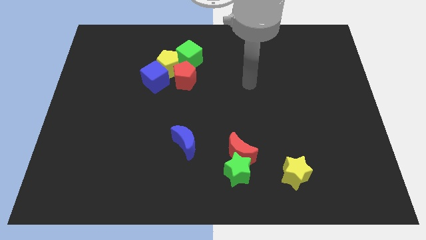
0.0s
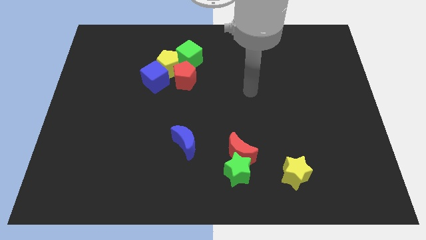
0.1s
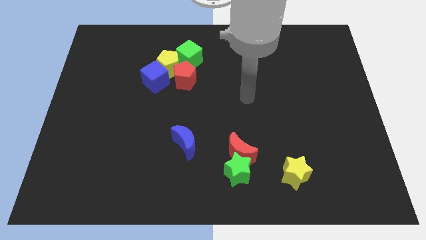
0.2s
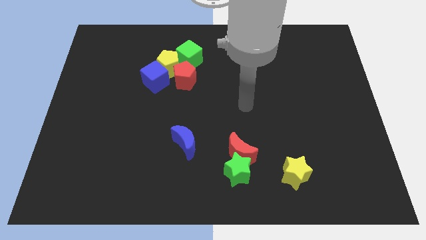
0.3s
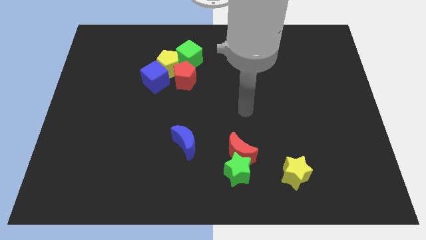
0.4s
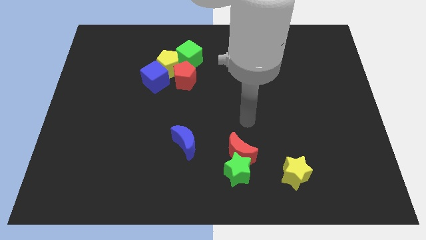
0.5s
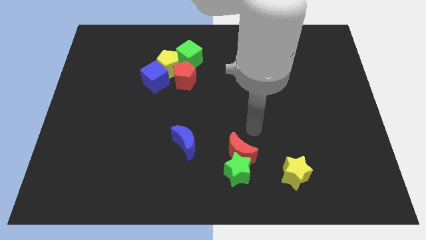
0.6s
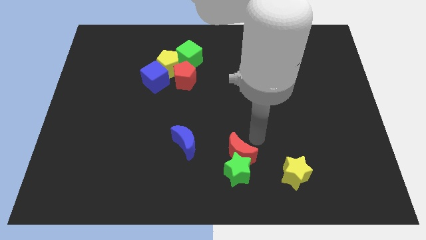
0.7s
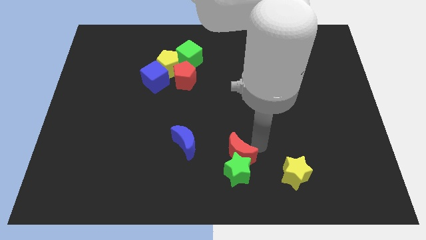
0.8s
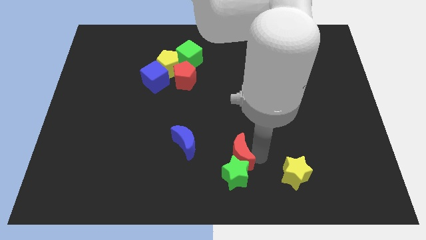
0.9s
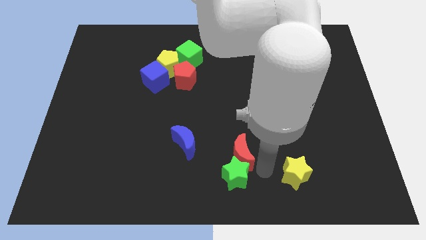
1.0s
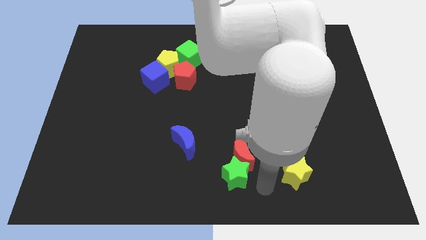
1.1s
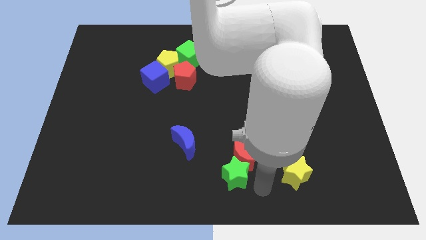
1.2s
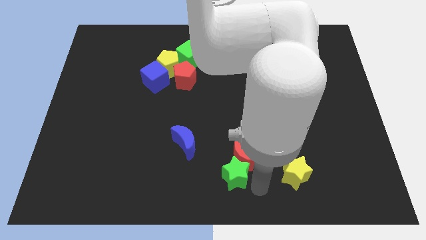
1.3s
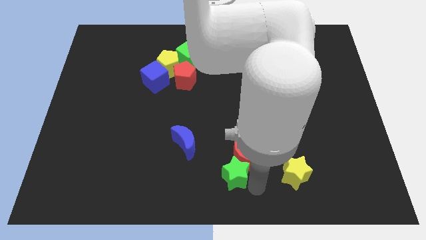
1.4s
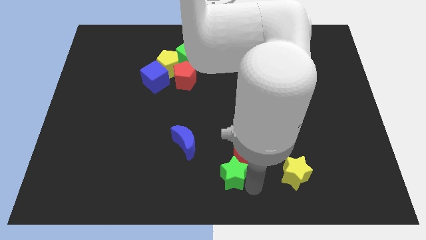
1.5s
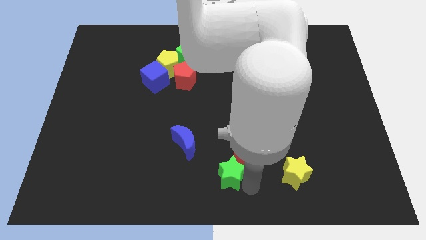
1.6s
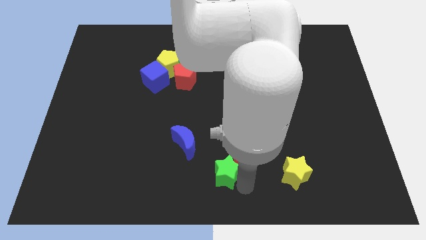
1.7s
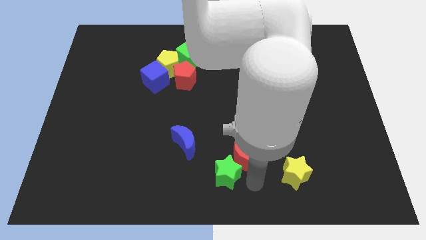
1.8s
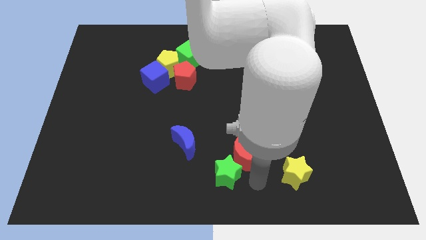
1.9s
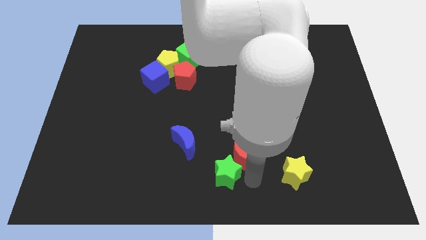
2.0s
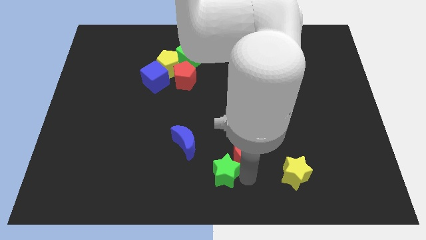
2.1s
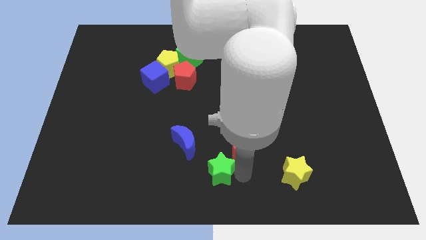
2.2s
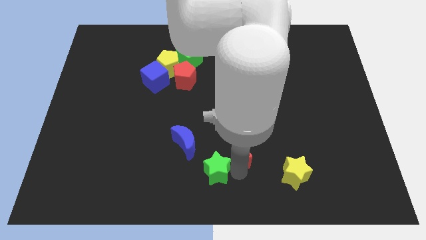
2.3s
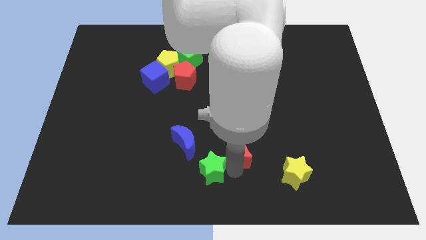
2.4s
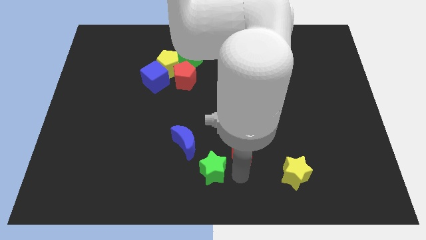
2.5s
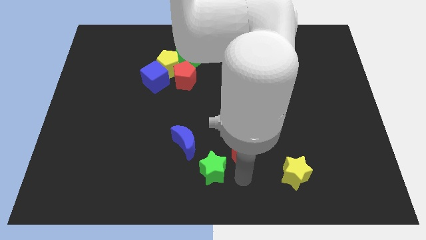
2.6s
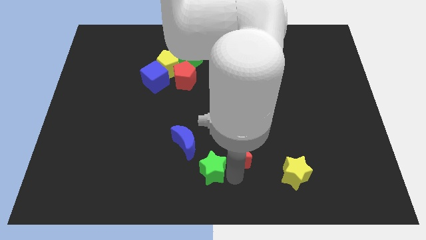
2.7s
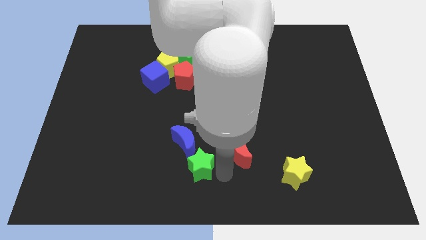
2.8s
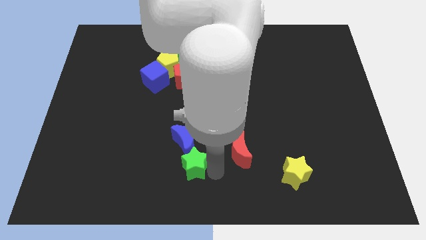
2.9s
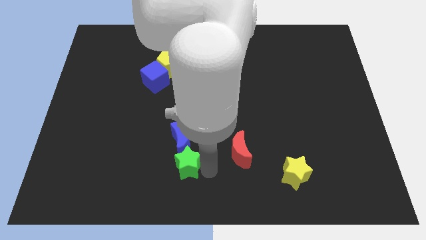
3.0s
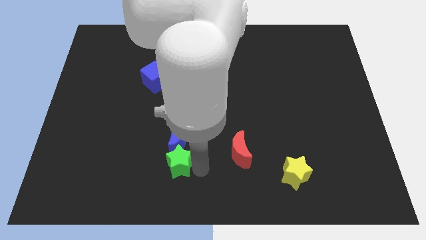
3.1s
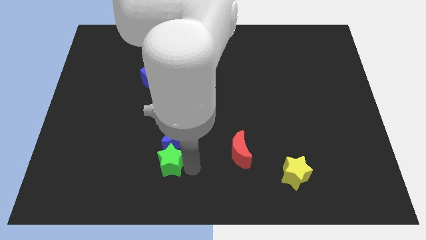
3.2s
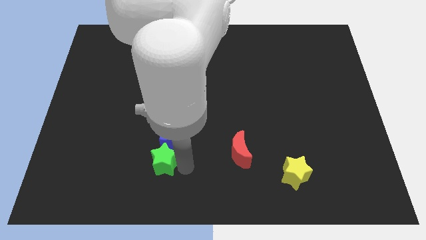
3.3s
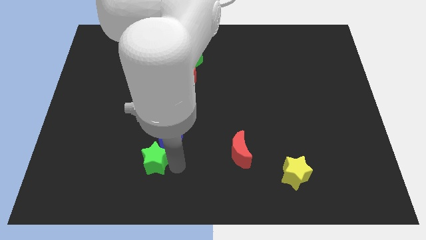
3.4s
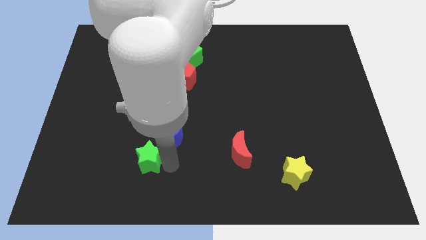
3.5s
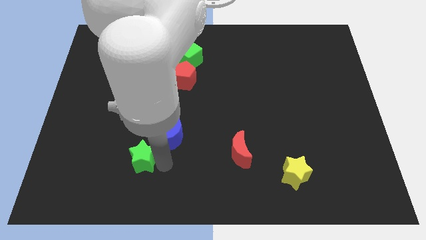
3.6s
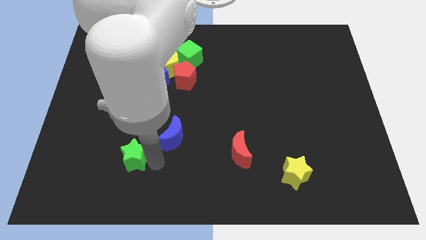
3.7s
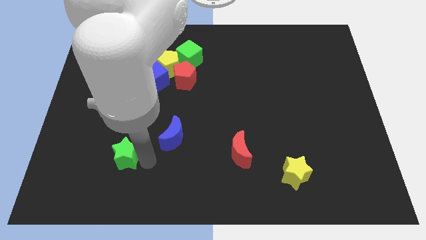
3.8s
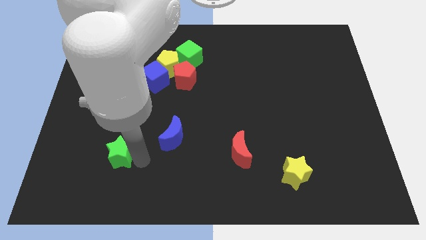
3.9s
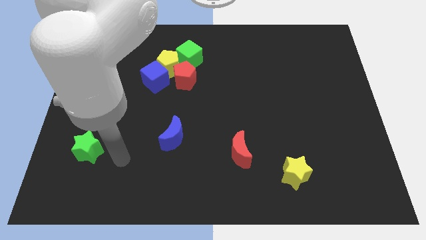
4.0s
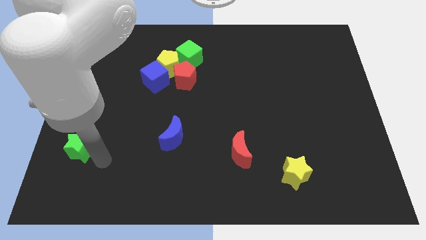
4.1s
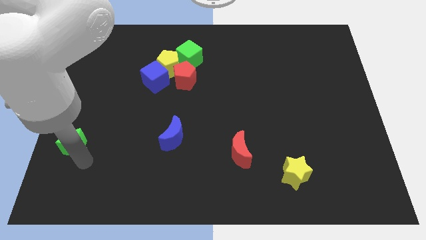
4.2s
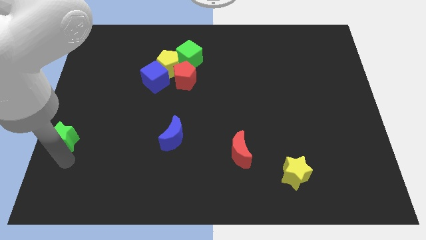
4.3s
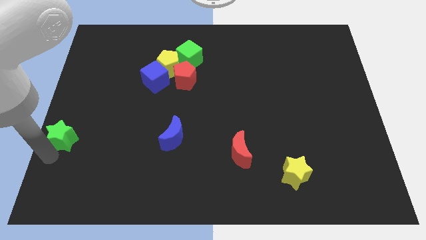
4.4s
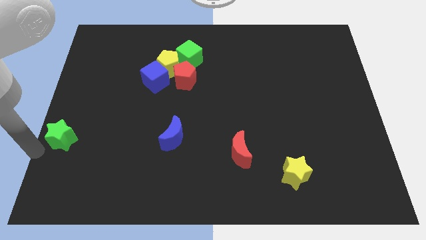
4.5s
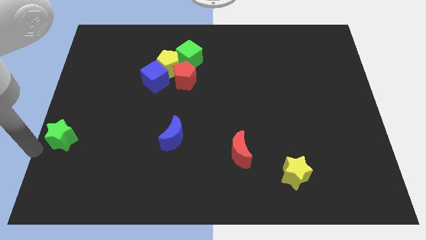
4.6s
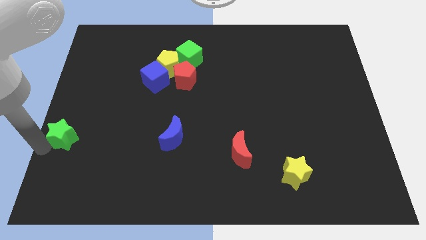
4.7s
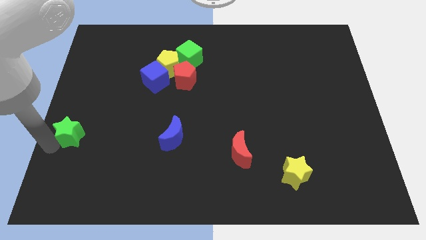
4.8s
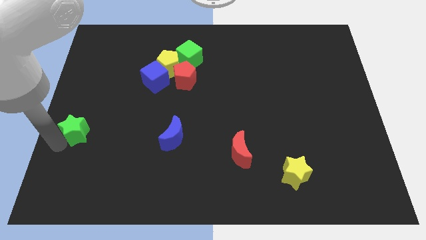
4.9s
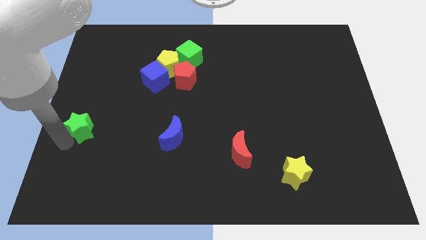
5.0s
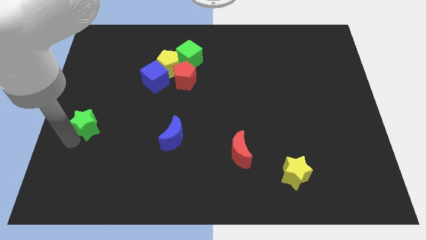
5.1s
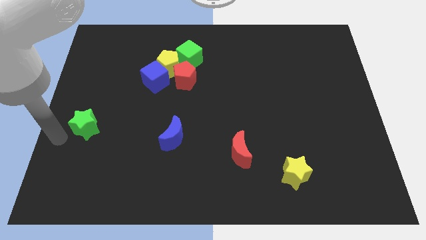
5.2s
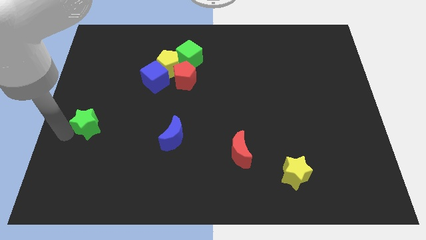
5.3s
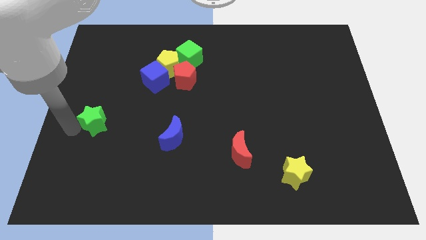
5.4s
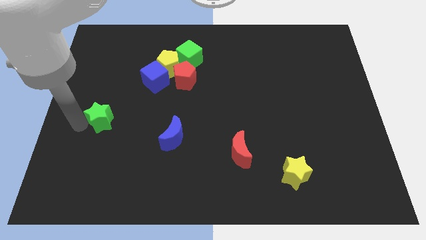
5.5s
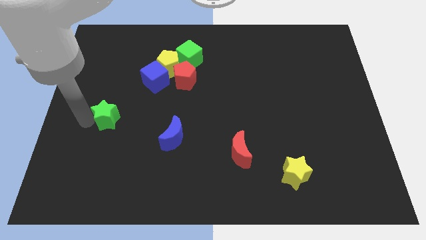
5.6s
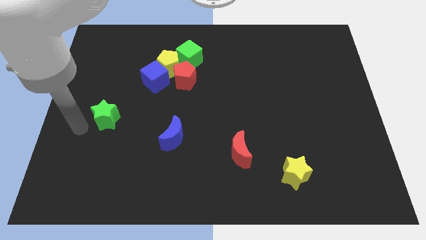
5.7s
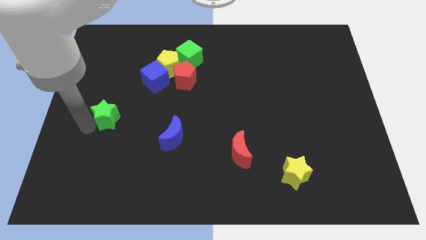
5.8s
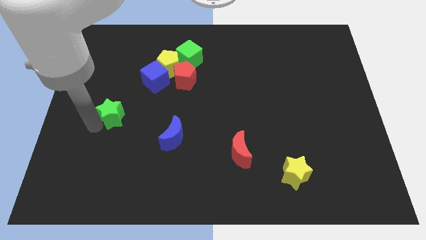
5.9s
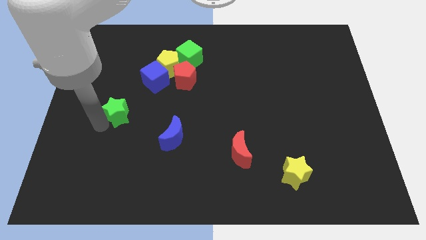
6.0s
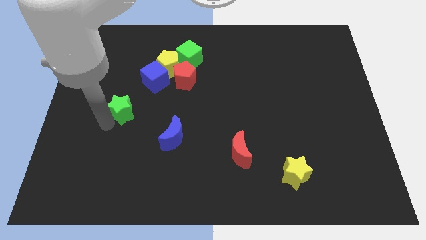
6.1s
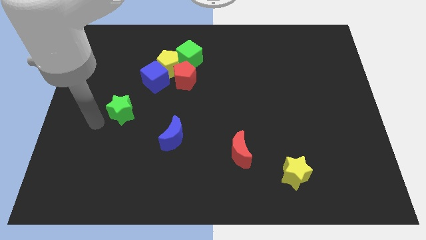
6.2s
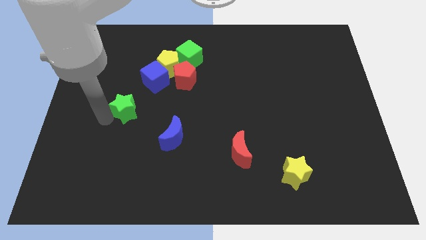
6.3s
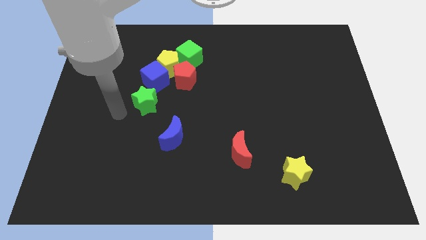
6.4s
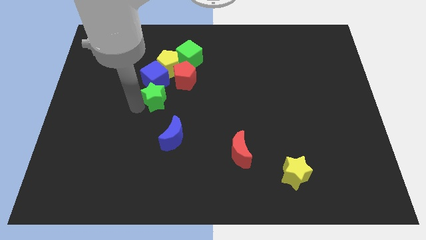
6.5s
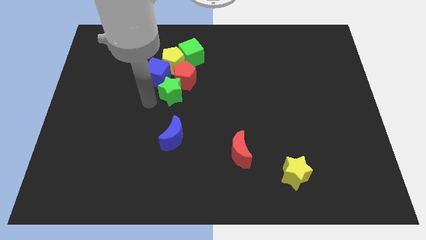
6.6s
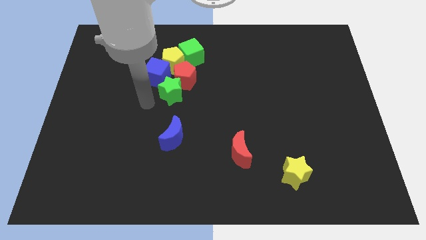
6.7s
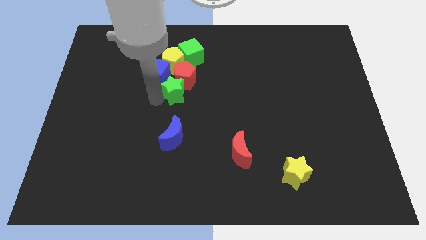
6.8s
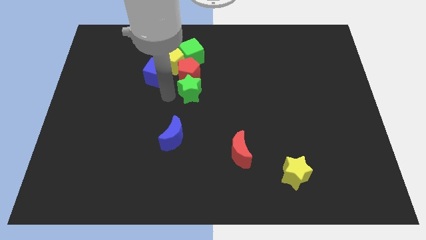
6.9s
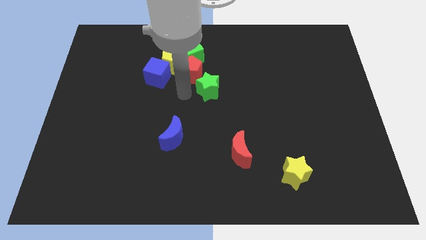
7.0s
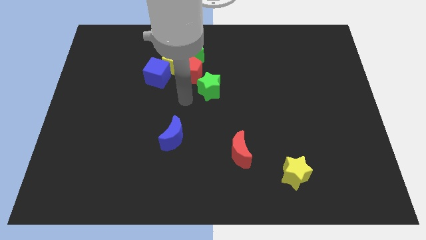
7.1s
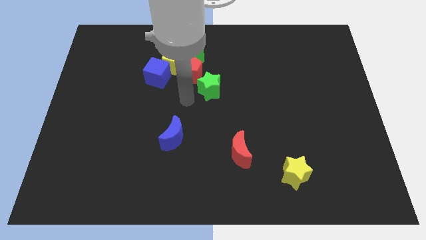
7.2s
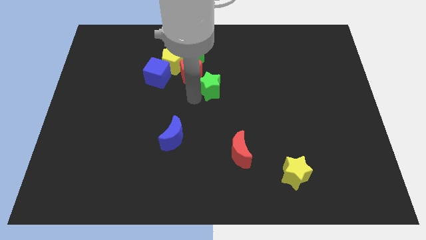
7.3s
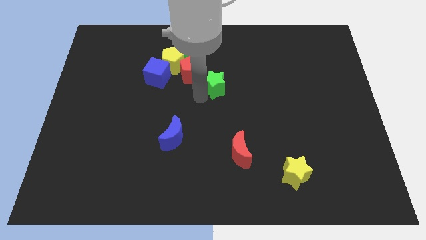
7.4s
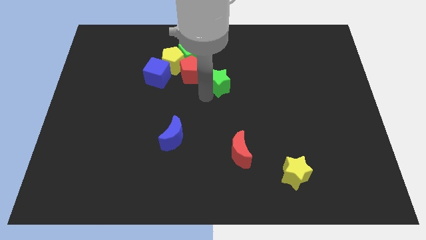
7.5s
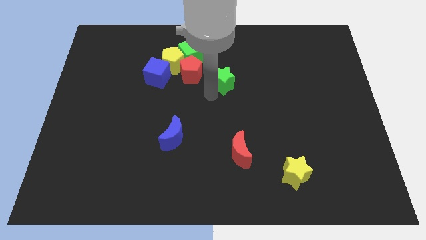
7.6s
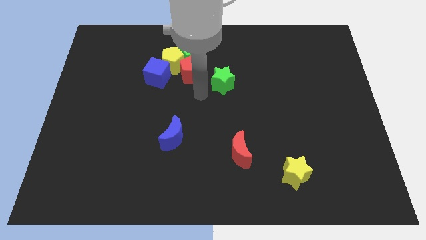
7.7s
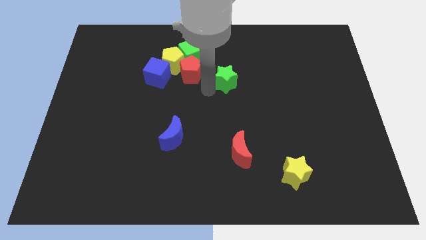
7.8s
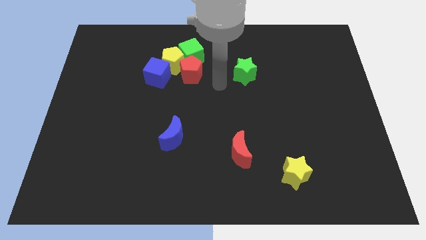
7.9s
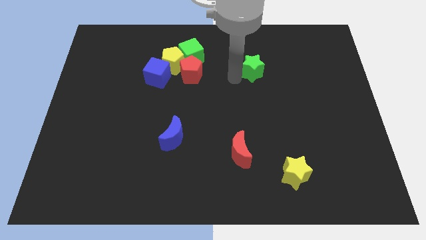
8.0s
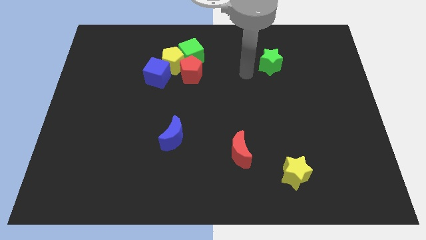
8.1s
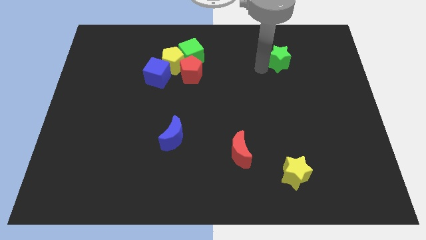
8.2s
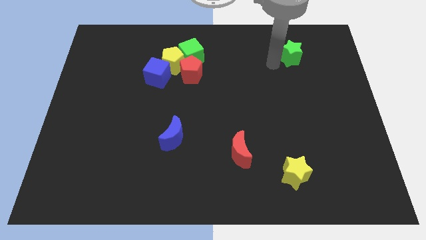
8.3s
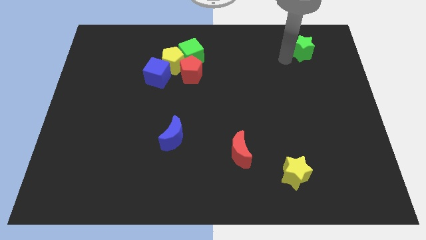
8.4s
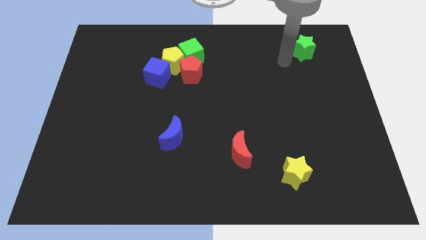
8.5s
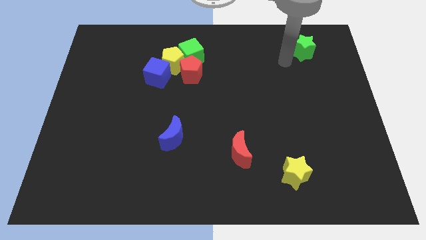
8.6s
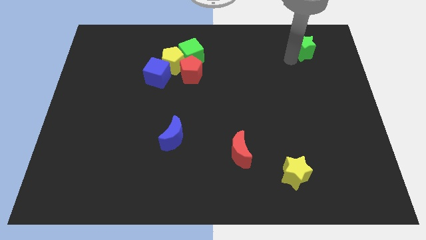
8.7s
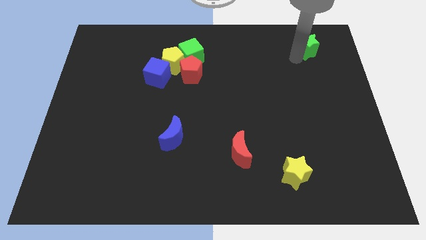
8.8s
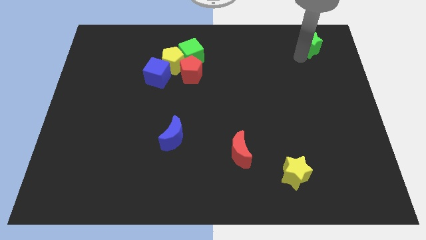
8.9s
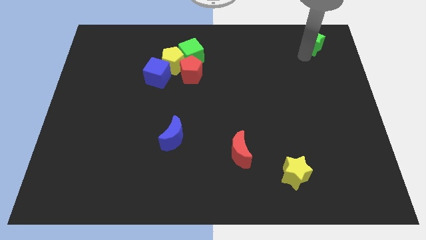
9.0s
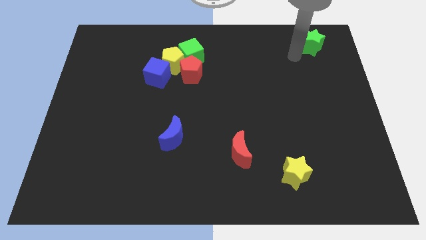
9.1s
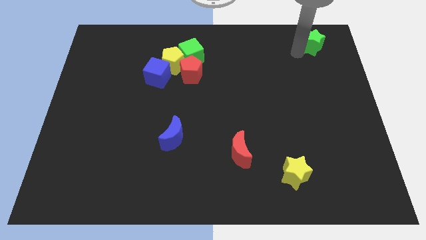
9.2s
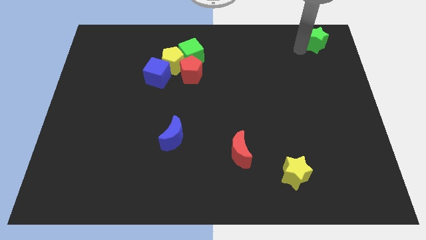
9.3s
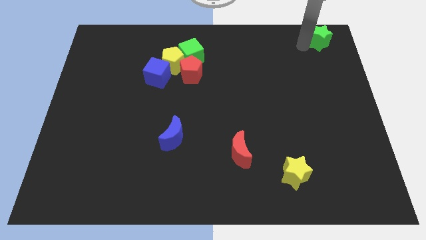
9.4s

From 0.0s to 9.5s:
push the green star to the top right corner
